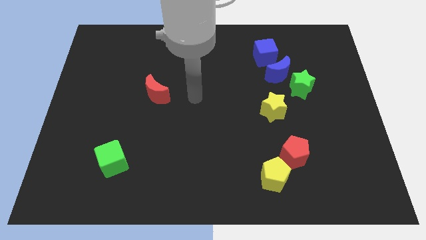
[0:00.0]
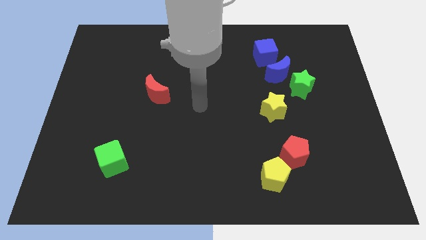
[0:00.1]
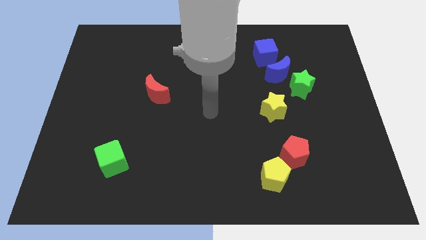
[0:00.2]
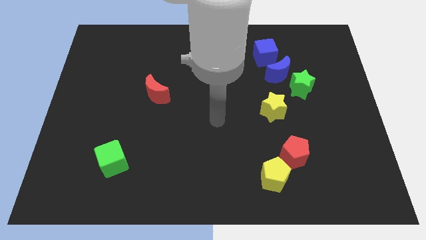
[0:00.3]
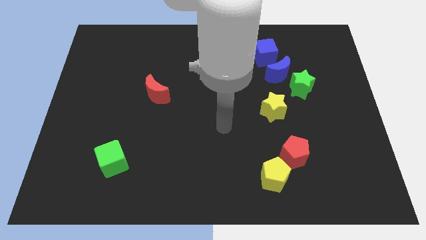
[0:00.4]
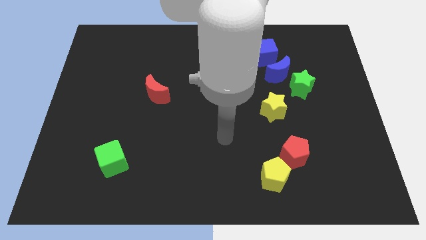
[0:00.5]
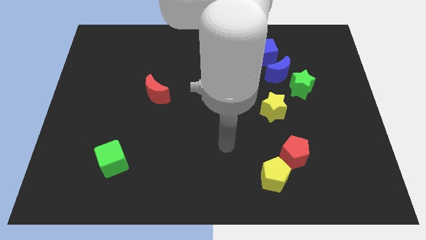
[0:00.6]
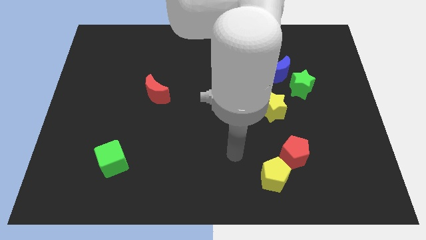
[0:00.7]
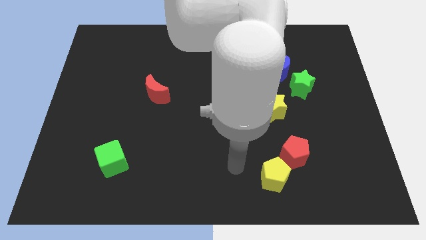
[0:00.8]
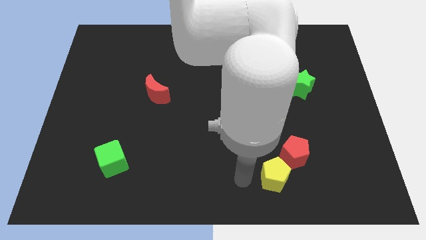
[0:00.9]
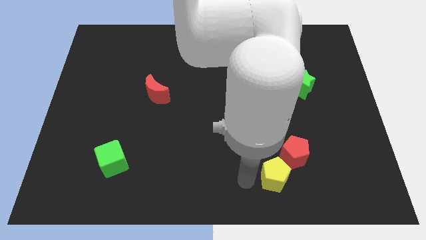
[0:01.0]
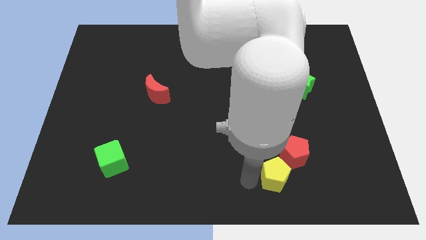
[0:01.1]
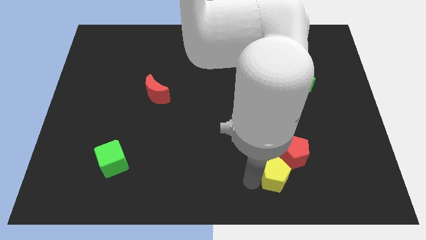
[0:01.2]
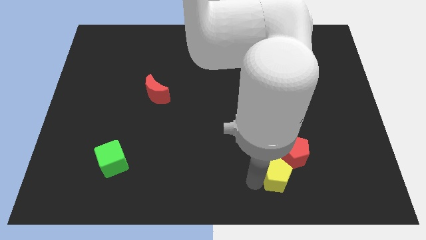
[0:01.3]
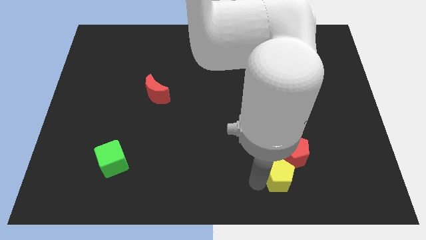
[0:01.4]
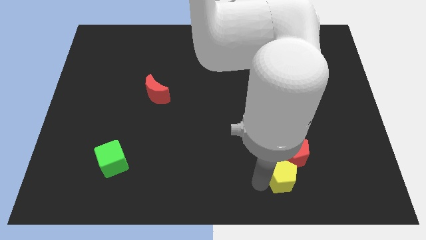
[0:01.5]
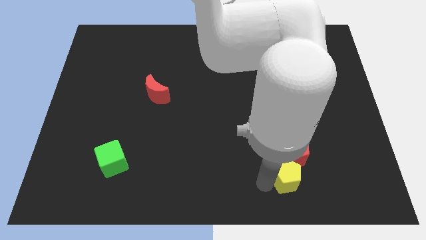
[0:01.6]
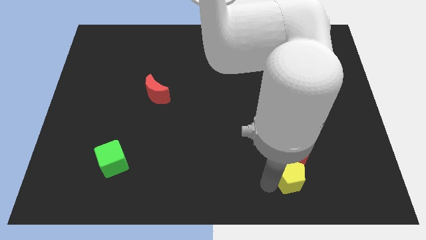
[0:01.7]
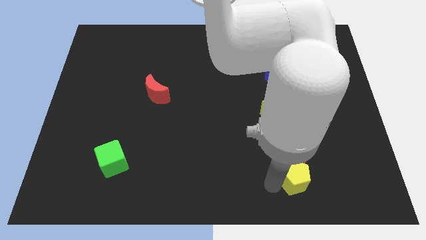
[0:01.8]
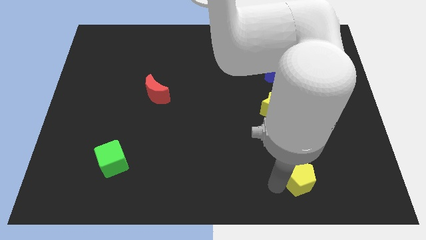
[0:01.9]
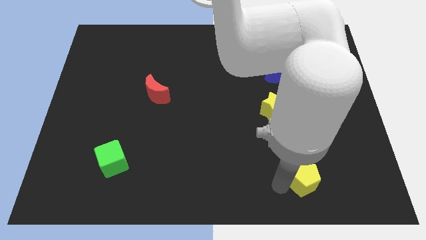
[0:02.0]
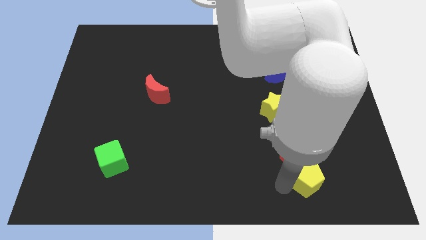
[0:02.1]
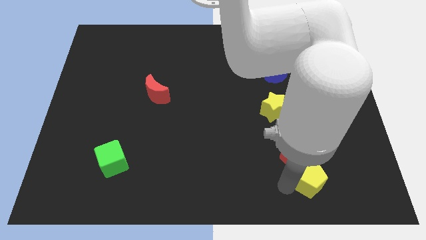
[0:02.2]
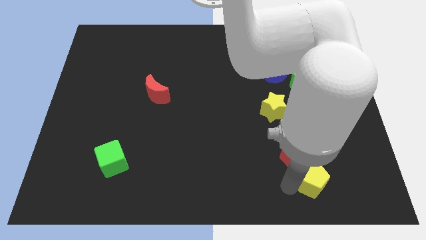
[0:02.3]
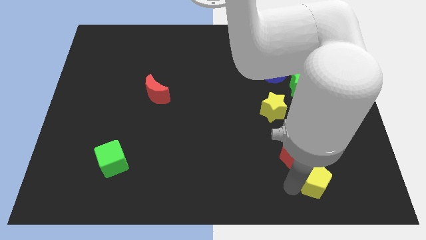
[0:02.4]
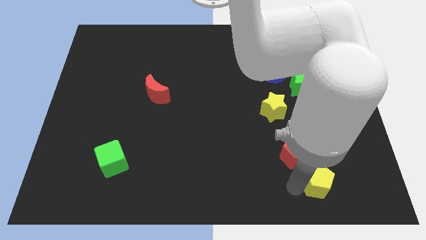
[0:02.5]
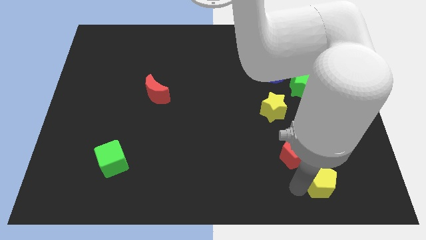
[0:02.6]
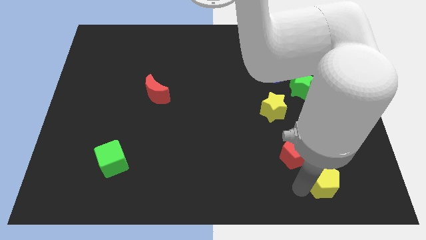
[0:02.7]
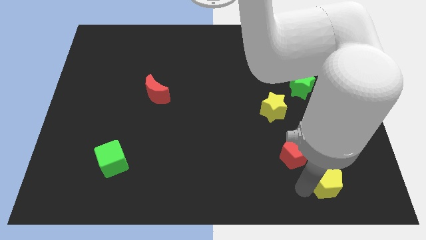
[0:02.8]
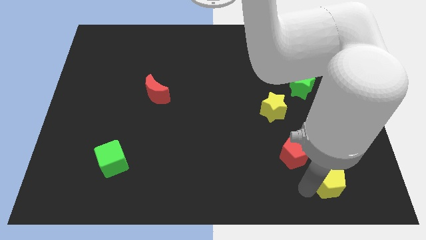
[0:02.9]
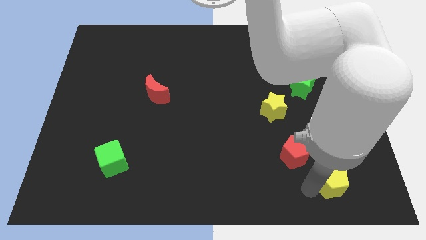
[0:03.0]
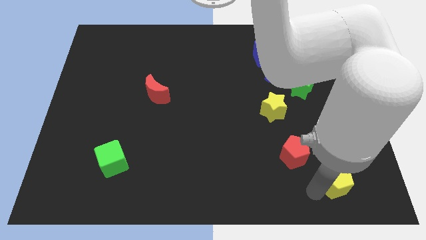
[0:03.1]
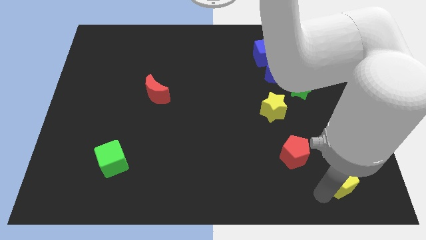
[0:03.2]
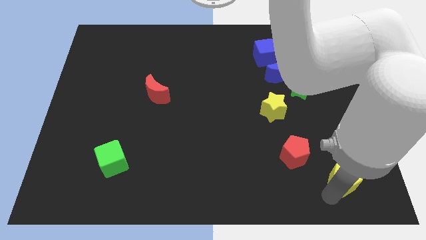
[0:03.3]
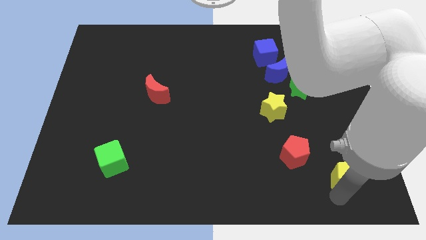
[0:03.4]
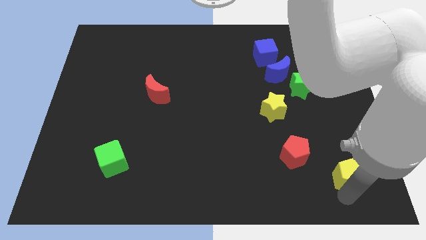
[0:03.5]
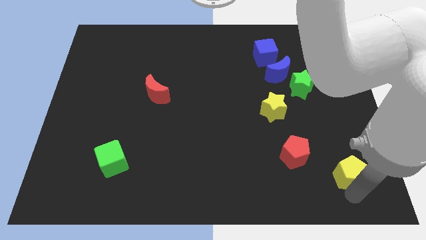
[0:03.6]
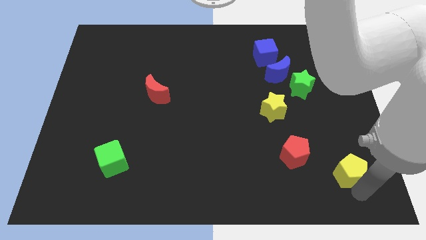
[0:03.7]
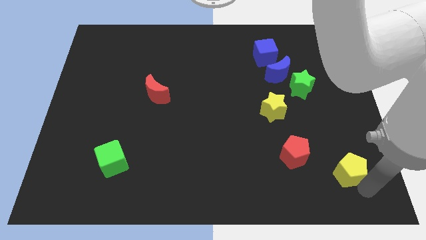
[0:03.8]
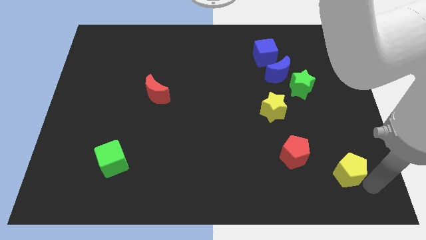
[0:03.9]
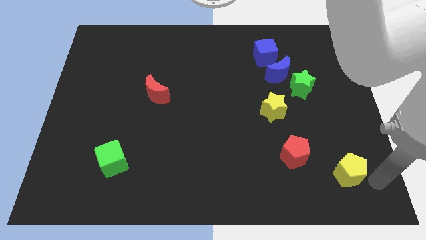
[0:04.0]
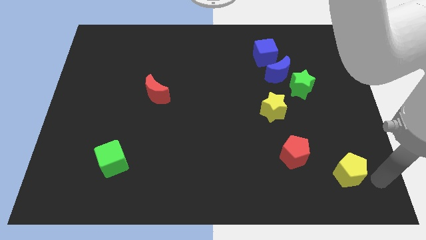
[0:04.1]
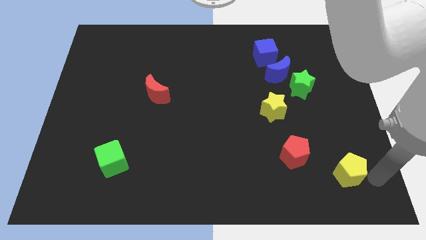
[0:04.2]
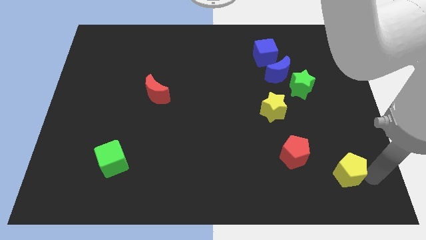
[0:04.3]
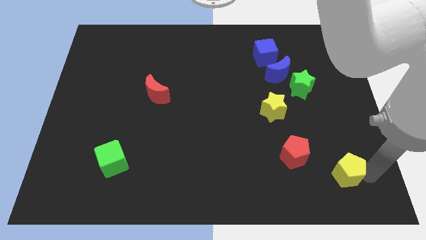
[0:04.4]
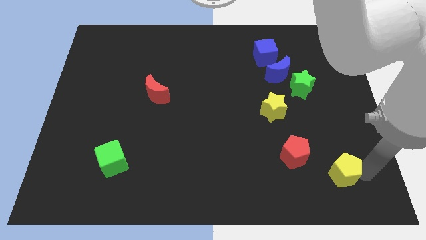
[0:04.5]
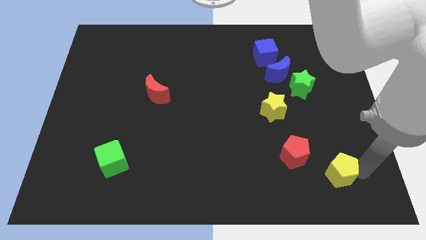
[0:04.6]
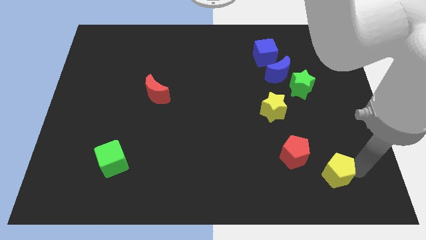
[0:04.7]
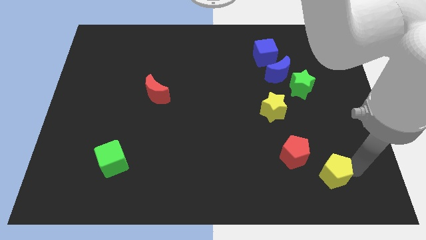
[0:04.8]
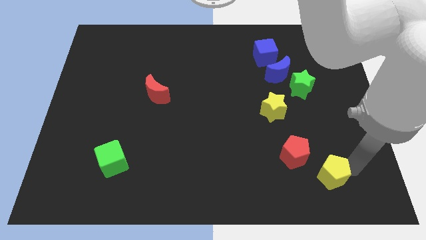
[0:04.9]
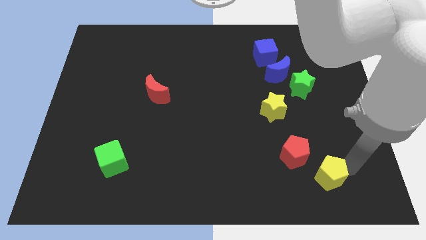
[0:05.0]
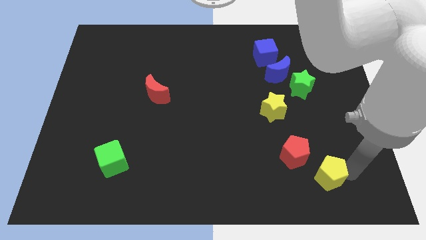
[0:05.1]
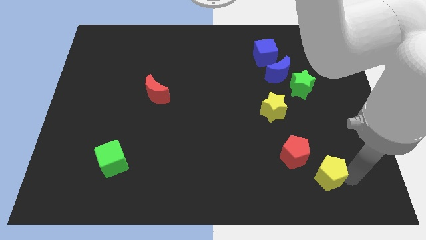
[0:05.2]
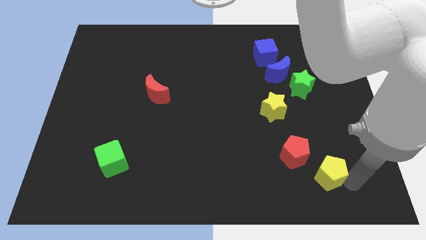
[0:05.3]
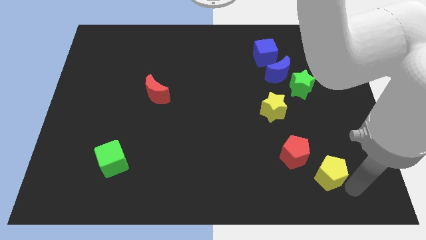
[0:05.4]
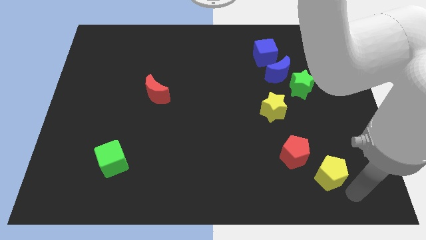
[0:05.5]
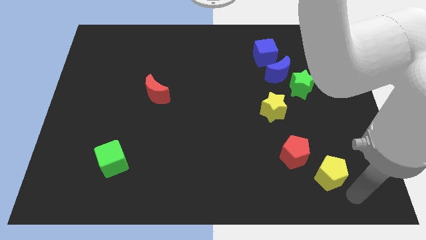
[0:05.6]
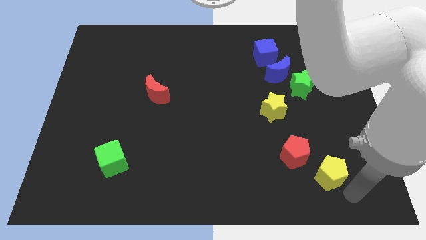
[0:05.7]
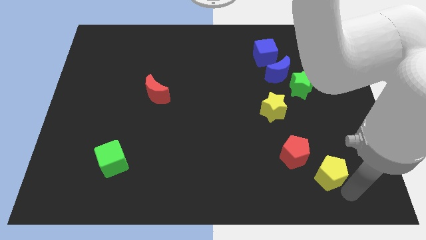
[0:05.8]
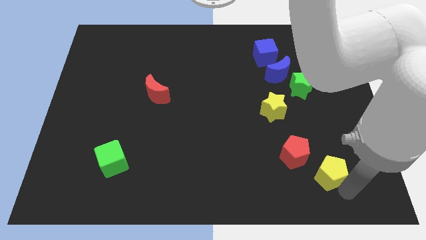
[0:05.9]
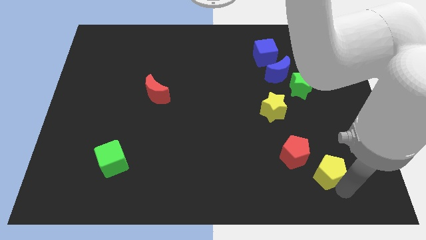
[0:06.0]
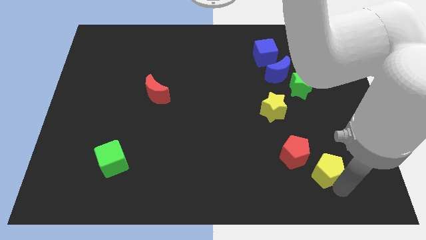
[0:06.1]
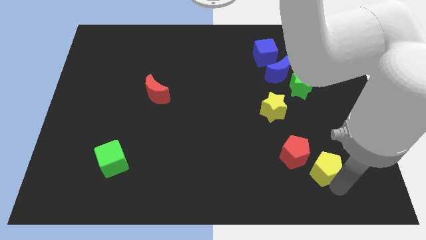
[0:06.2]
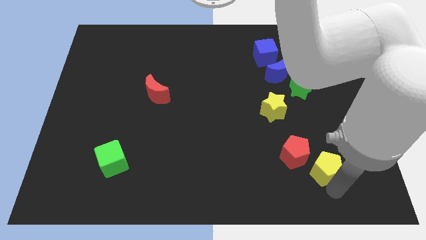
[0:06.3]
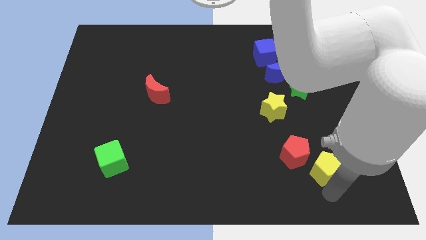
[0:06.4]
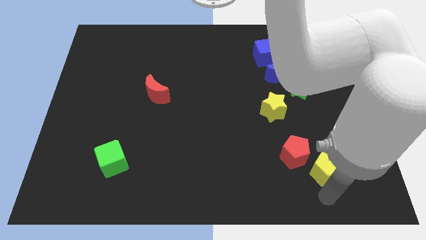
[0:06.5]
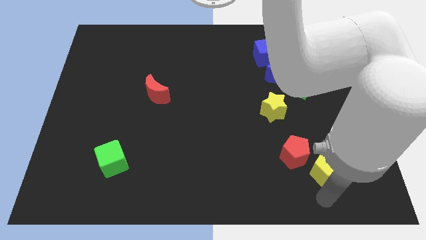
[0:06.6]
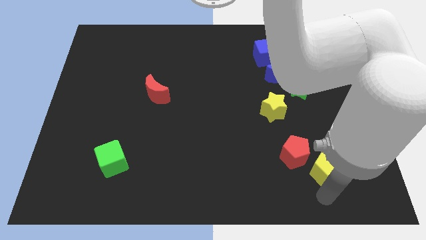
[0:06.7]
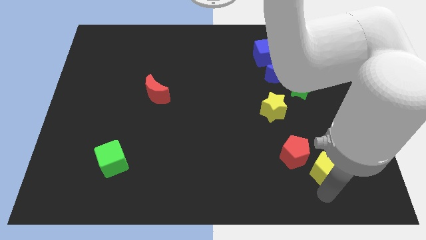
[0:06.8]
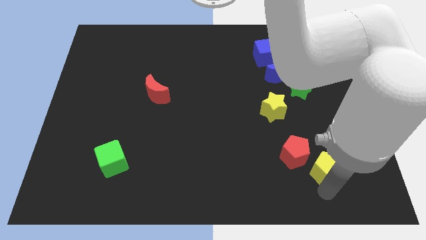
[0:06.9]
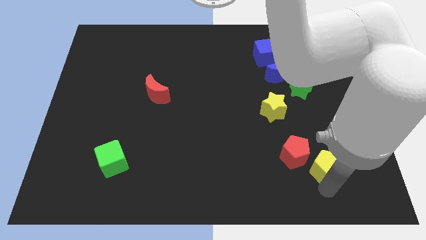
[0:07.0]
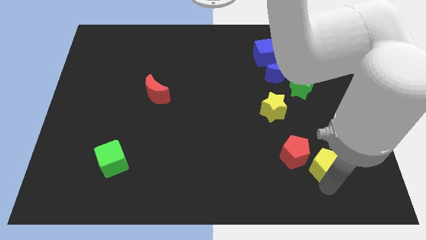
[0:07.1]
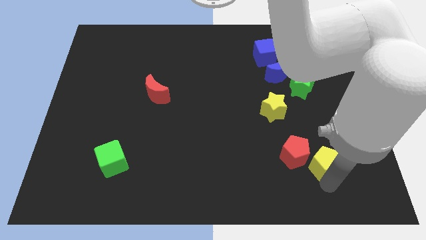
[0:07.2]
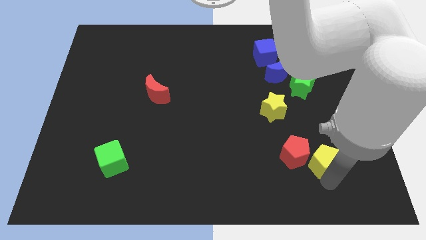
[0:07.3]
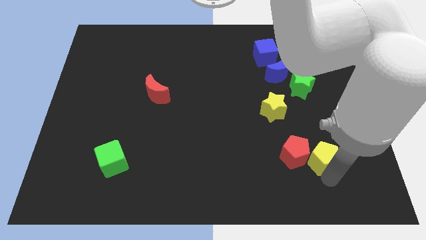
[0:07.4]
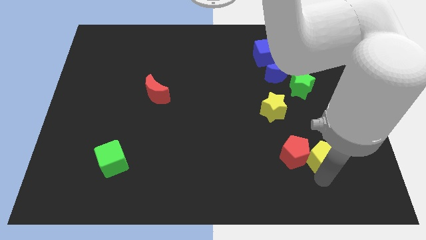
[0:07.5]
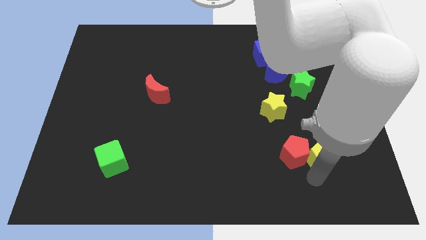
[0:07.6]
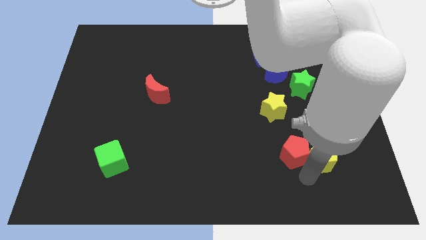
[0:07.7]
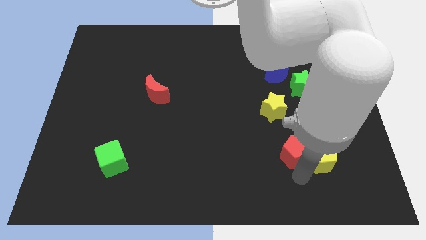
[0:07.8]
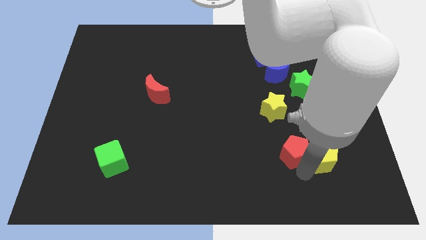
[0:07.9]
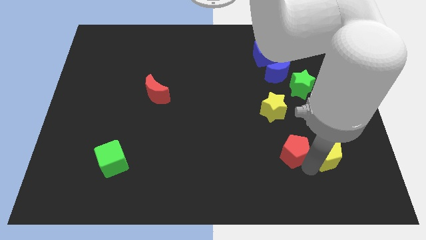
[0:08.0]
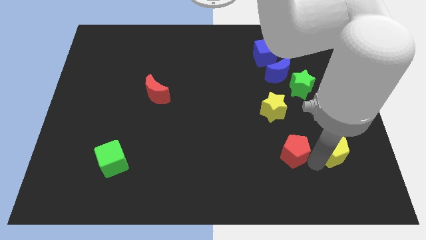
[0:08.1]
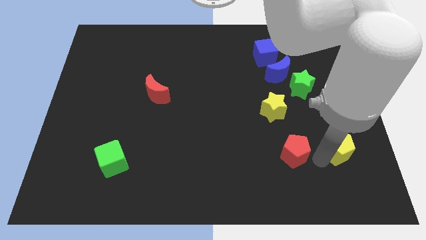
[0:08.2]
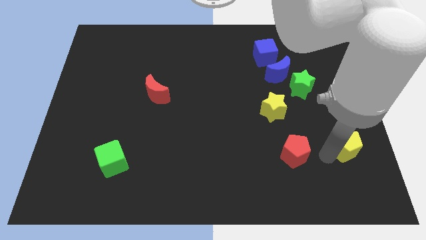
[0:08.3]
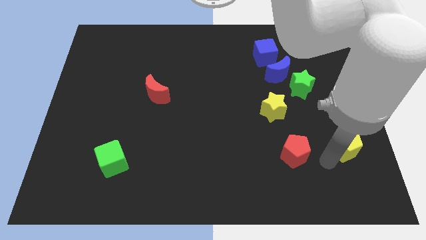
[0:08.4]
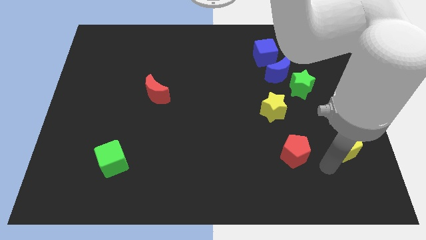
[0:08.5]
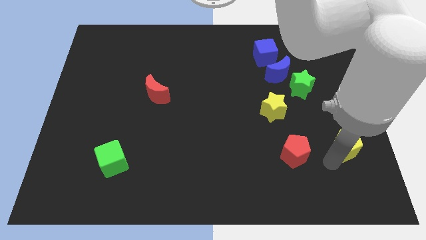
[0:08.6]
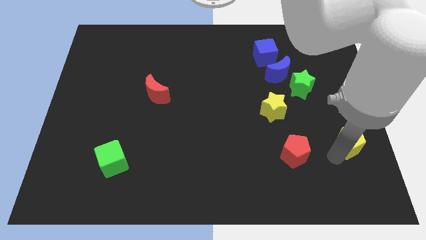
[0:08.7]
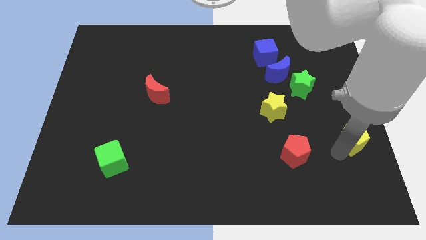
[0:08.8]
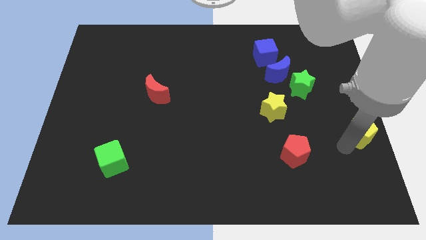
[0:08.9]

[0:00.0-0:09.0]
put the yellow pentagon to the right side
